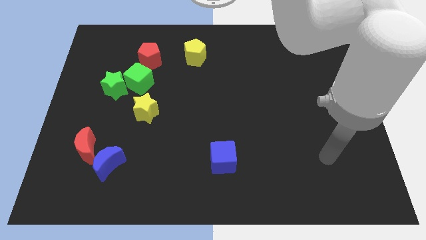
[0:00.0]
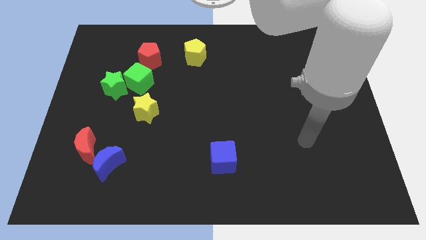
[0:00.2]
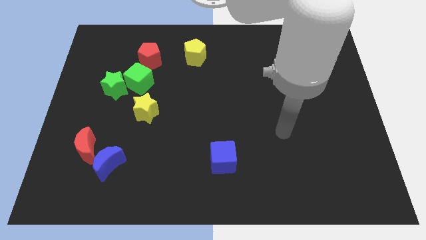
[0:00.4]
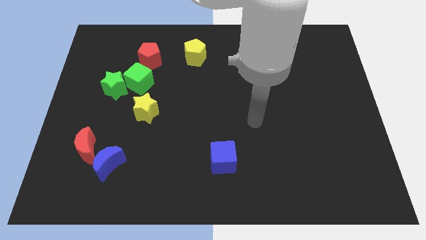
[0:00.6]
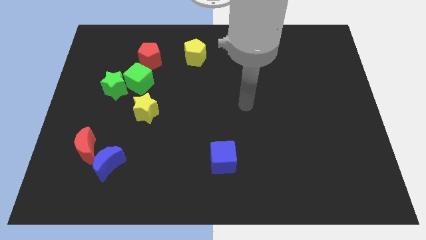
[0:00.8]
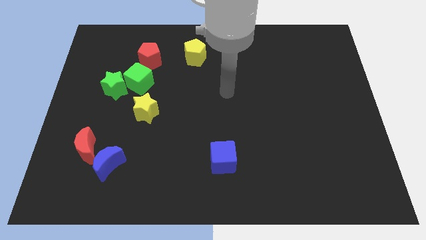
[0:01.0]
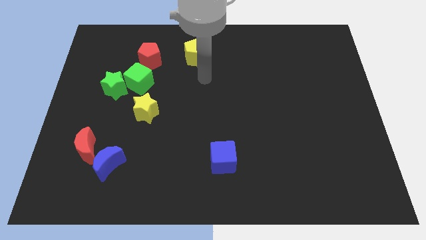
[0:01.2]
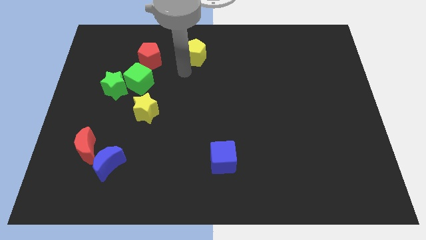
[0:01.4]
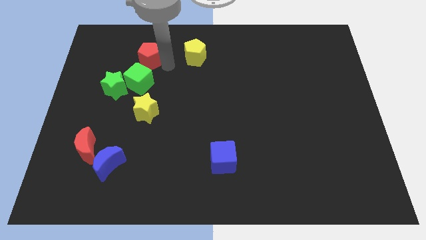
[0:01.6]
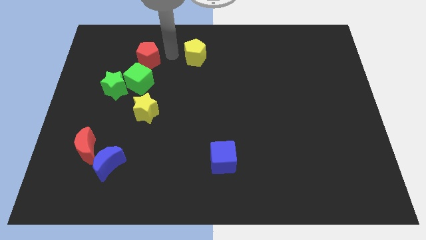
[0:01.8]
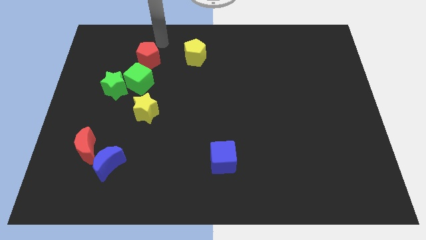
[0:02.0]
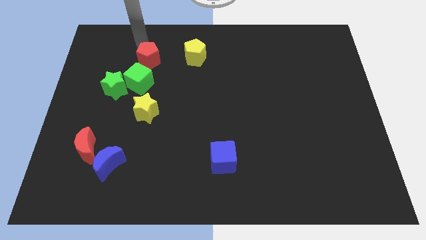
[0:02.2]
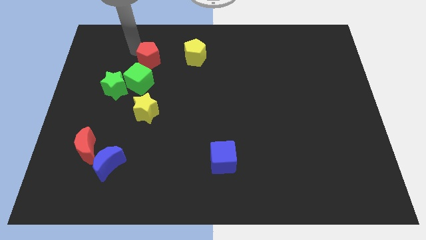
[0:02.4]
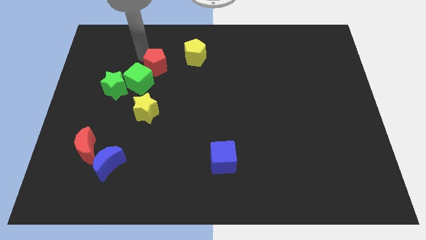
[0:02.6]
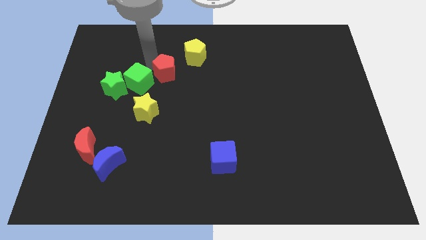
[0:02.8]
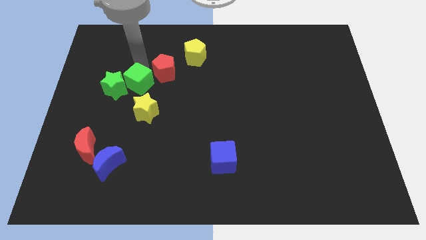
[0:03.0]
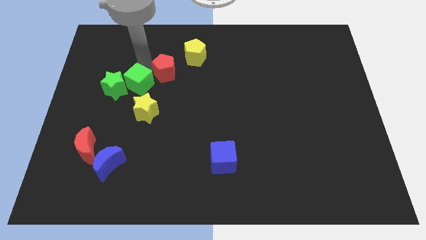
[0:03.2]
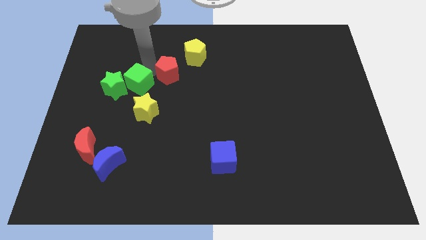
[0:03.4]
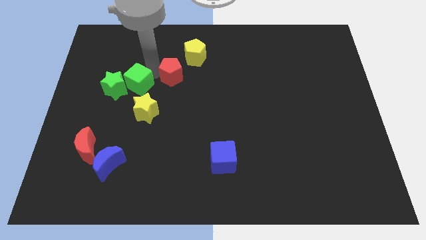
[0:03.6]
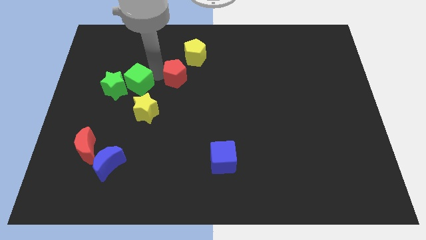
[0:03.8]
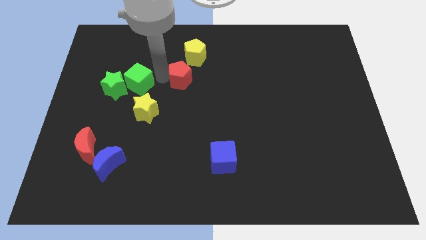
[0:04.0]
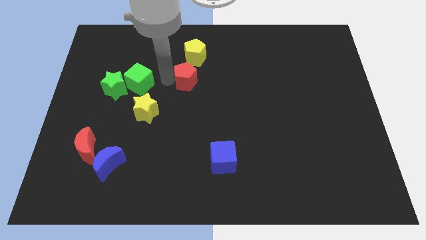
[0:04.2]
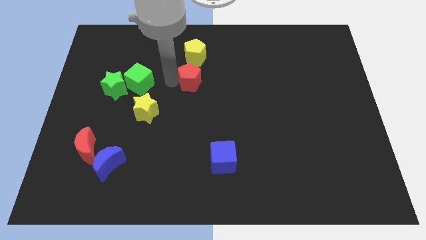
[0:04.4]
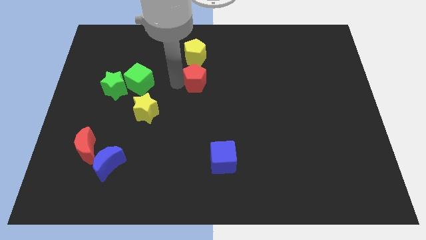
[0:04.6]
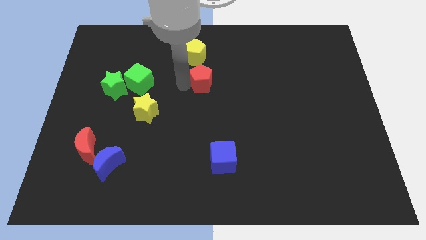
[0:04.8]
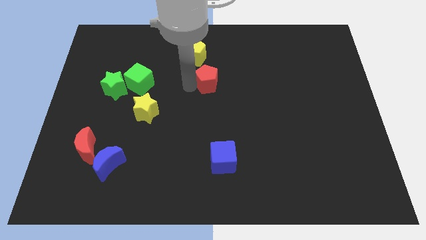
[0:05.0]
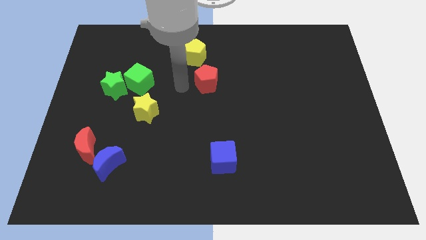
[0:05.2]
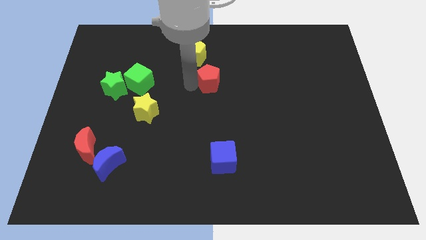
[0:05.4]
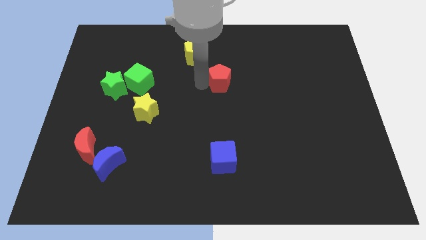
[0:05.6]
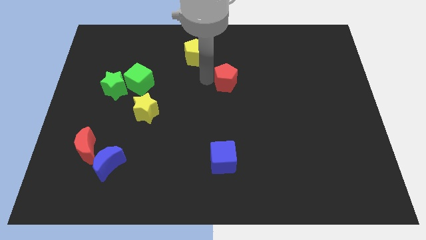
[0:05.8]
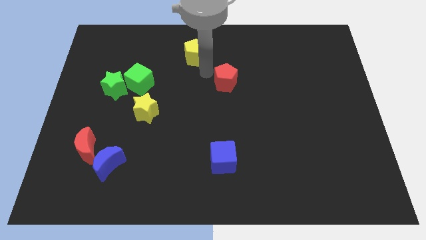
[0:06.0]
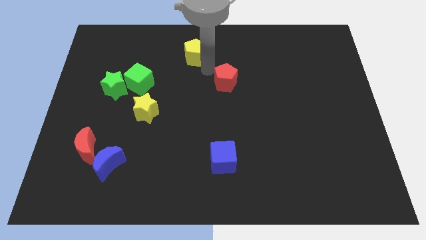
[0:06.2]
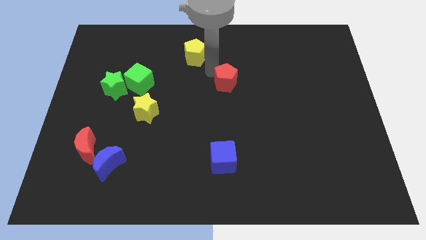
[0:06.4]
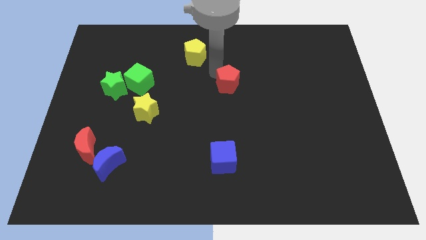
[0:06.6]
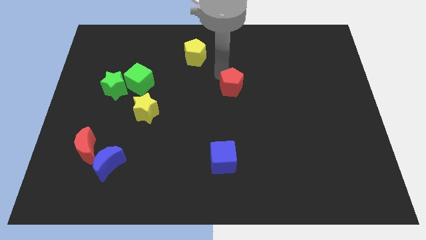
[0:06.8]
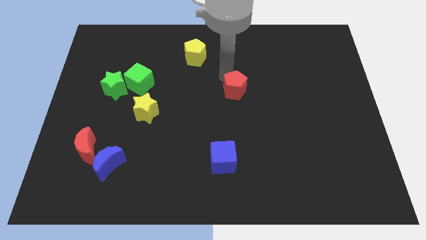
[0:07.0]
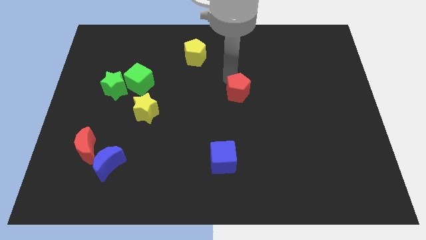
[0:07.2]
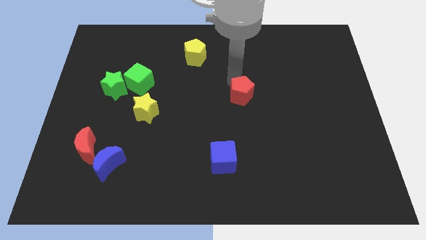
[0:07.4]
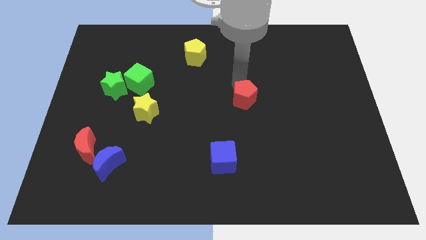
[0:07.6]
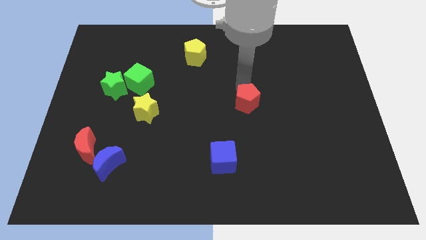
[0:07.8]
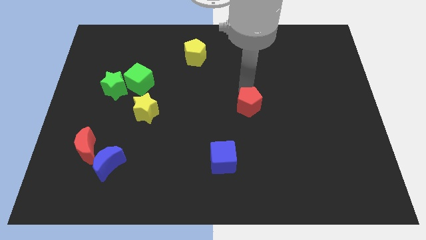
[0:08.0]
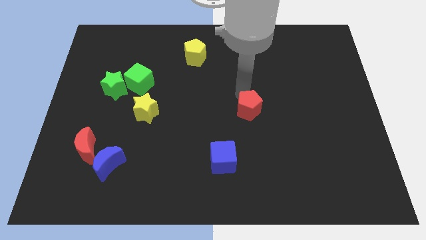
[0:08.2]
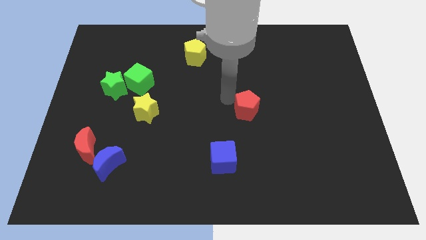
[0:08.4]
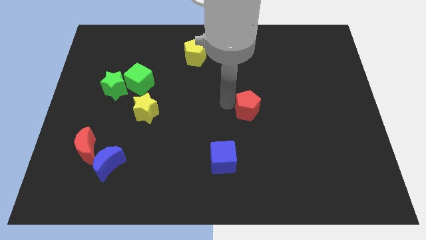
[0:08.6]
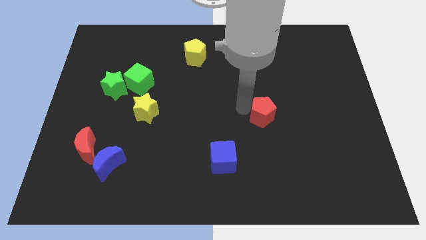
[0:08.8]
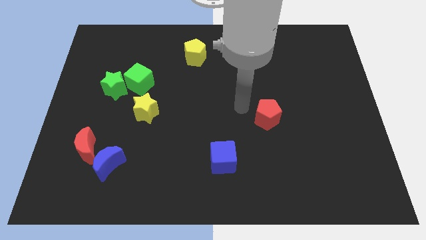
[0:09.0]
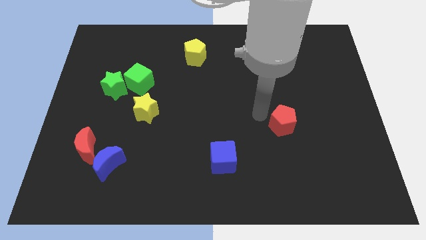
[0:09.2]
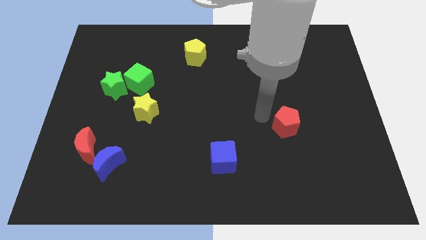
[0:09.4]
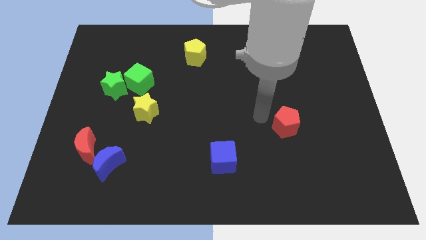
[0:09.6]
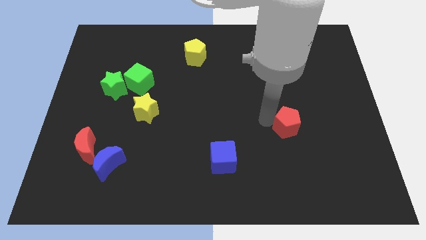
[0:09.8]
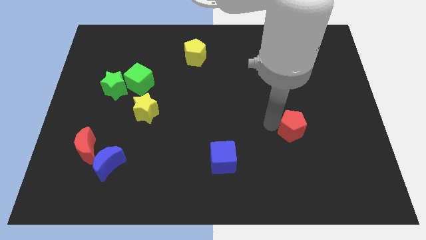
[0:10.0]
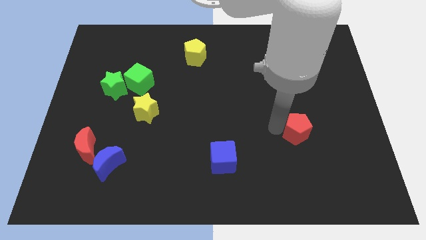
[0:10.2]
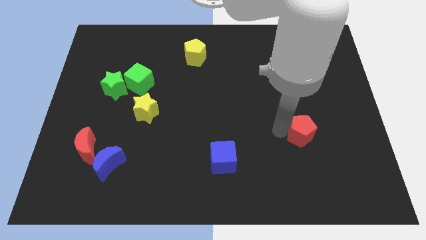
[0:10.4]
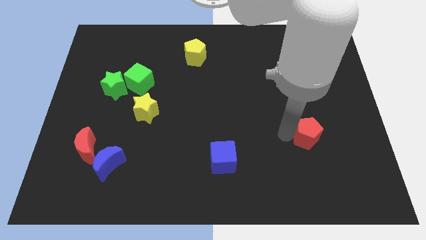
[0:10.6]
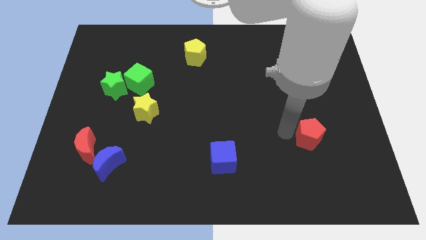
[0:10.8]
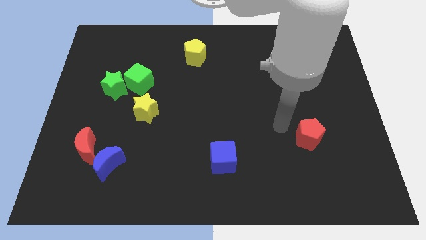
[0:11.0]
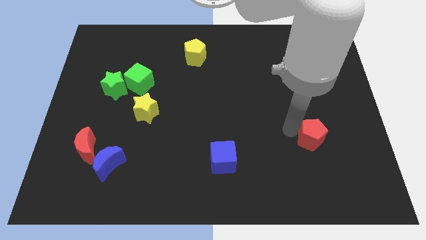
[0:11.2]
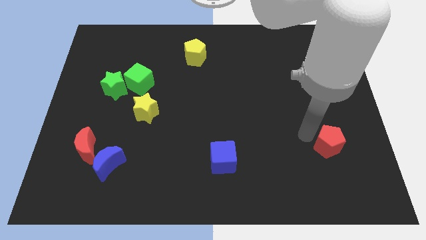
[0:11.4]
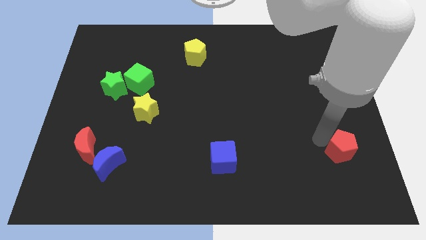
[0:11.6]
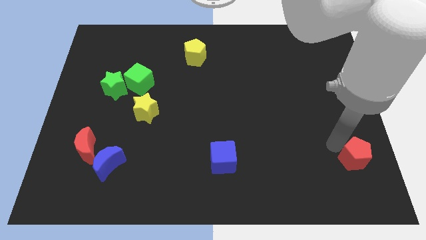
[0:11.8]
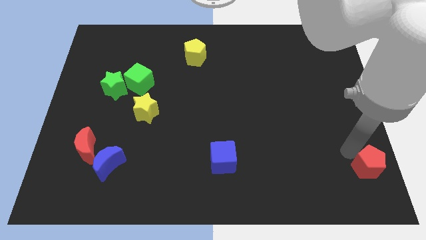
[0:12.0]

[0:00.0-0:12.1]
move the red pentagon to the lower right corner
